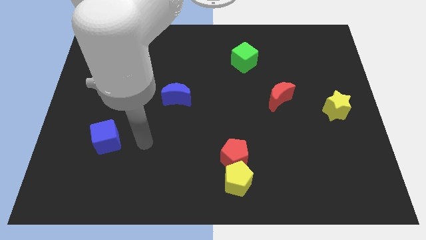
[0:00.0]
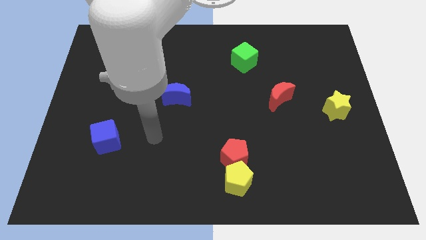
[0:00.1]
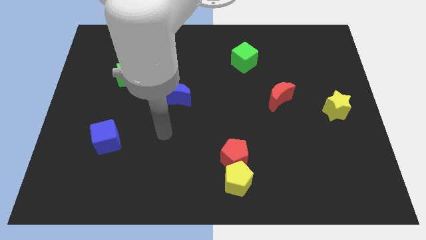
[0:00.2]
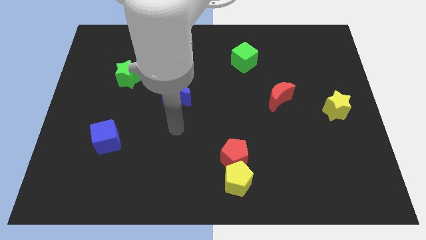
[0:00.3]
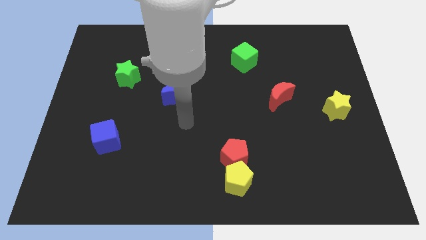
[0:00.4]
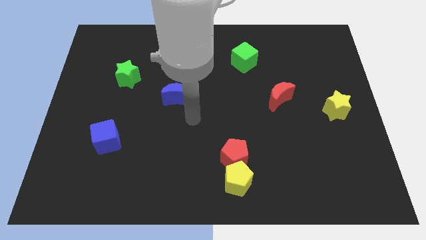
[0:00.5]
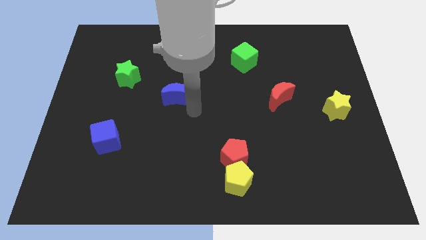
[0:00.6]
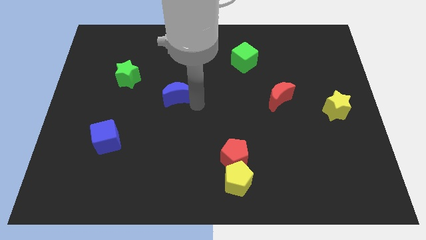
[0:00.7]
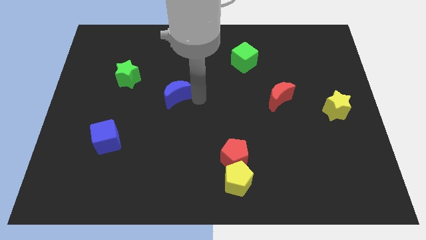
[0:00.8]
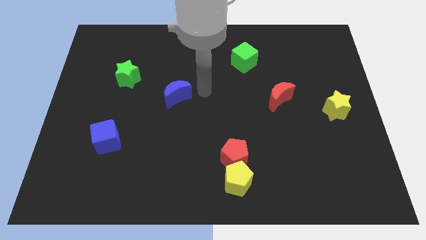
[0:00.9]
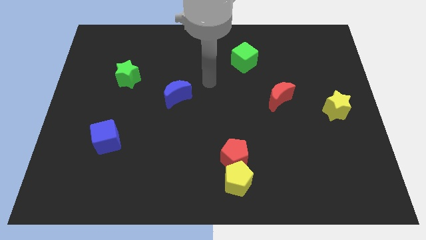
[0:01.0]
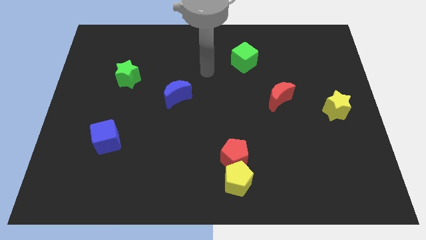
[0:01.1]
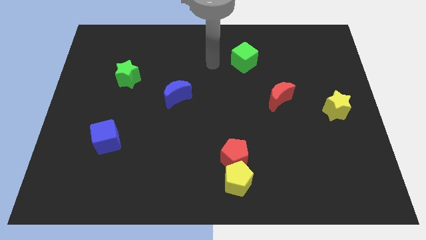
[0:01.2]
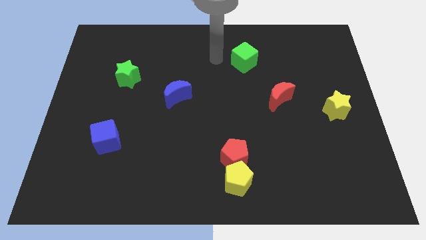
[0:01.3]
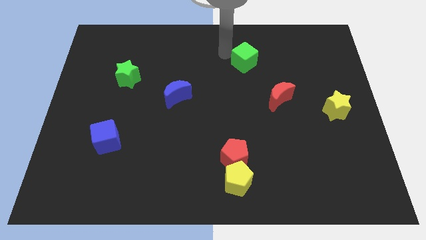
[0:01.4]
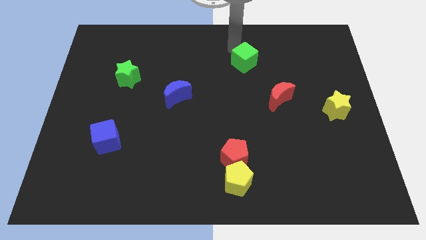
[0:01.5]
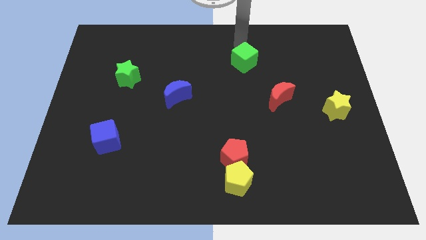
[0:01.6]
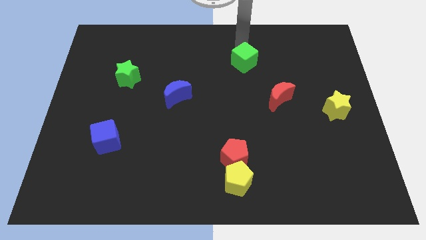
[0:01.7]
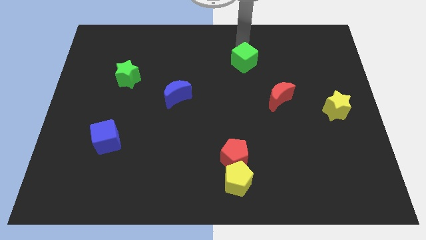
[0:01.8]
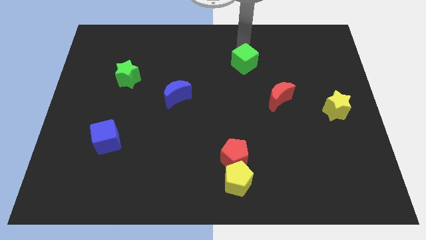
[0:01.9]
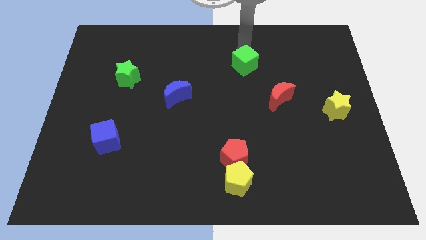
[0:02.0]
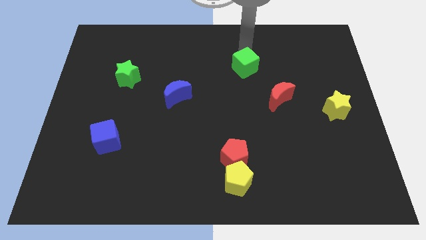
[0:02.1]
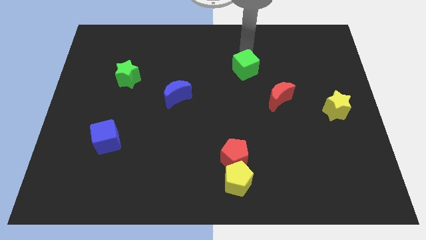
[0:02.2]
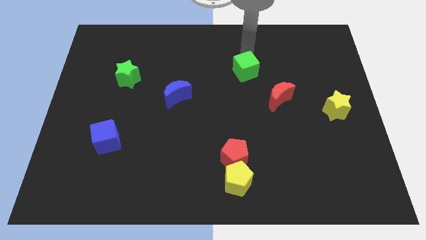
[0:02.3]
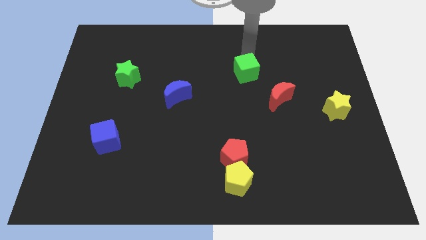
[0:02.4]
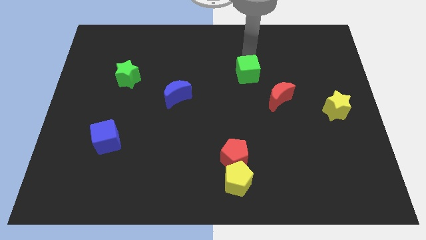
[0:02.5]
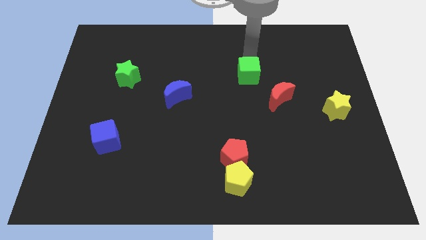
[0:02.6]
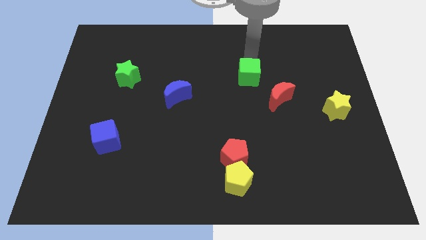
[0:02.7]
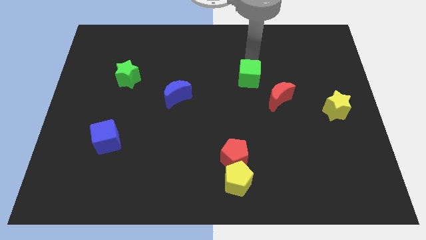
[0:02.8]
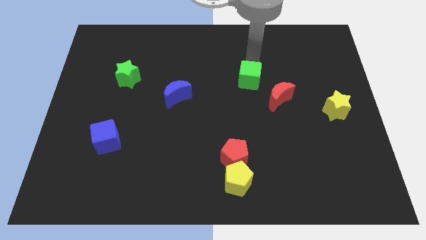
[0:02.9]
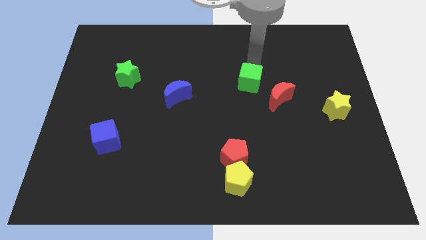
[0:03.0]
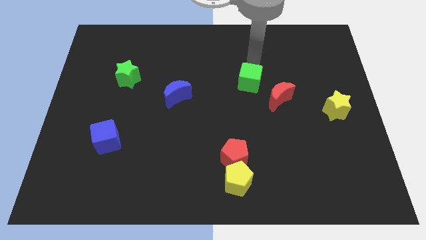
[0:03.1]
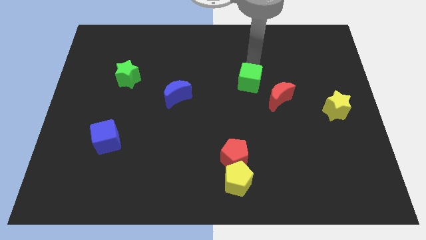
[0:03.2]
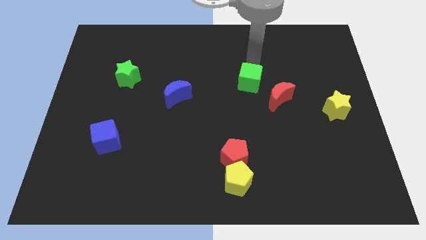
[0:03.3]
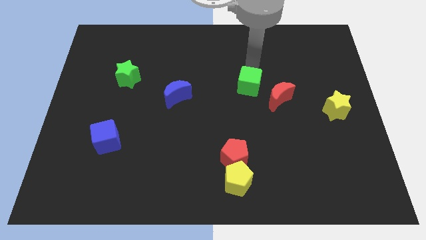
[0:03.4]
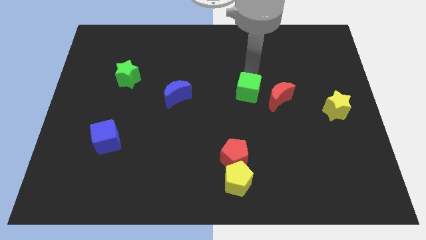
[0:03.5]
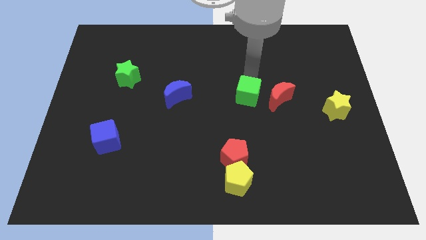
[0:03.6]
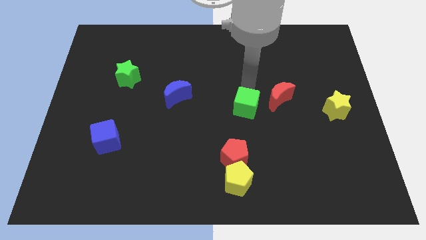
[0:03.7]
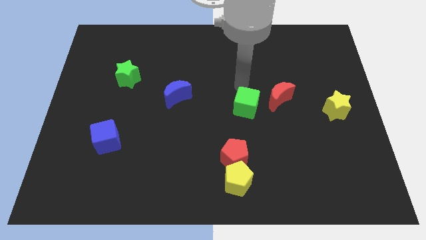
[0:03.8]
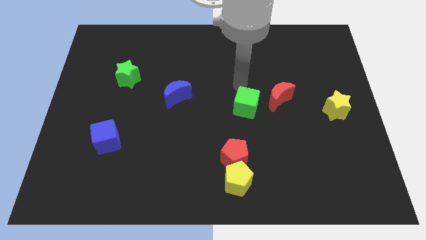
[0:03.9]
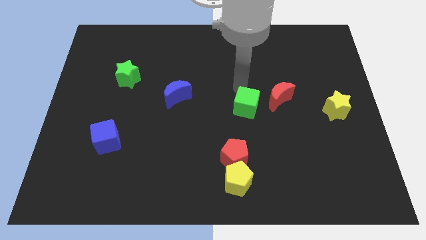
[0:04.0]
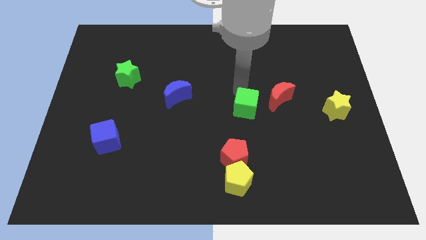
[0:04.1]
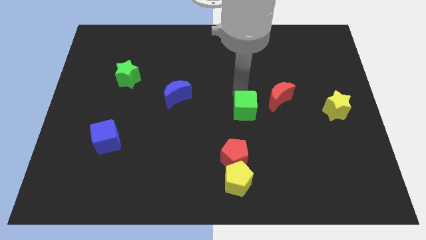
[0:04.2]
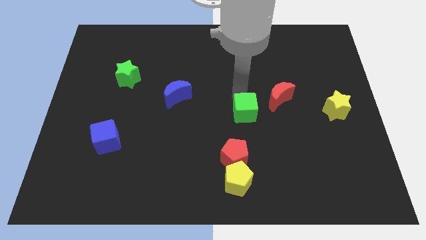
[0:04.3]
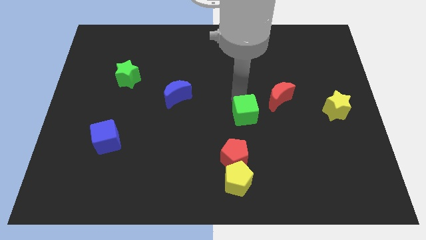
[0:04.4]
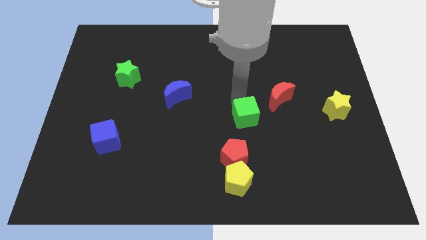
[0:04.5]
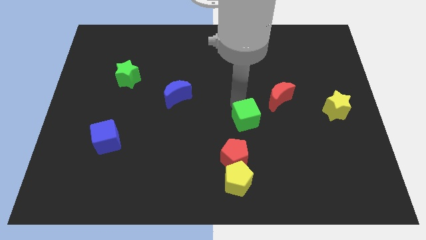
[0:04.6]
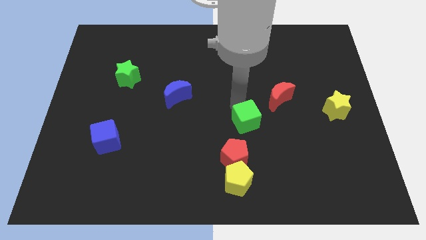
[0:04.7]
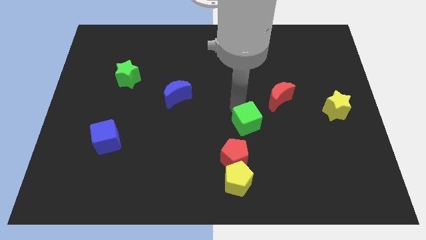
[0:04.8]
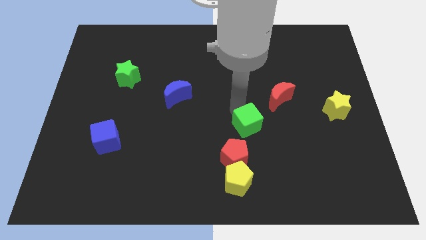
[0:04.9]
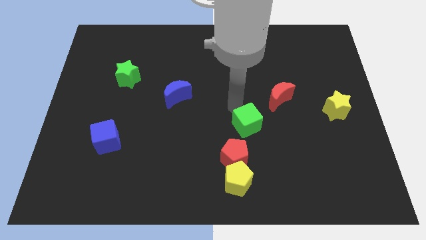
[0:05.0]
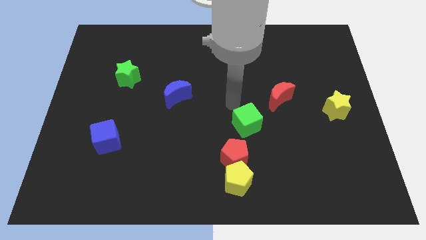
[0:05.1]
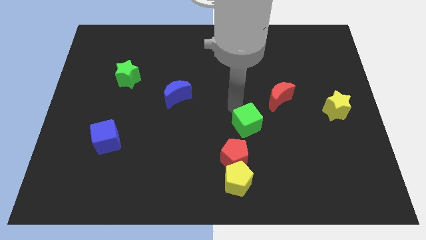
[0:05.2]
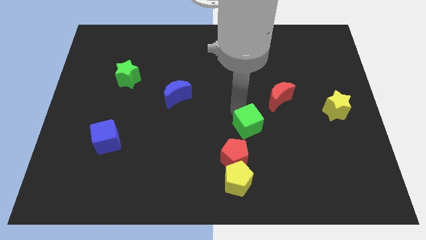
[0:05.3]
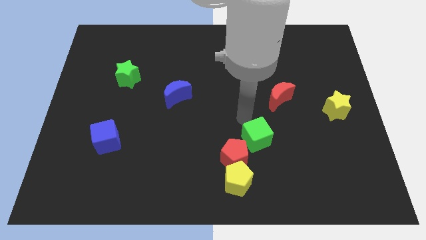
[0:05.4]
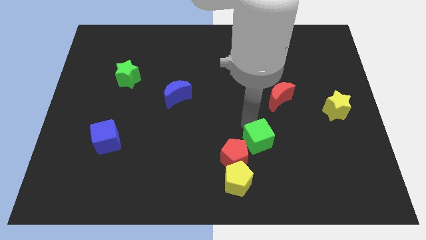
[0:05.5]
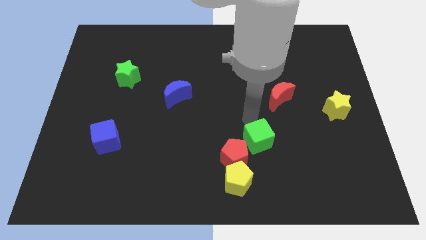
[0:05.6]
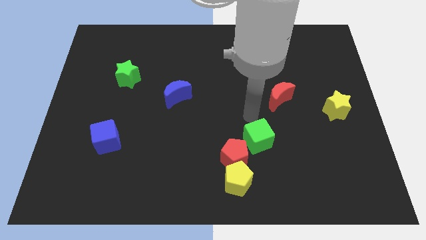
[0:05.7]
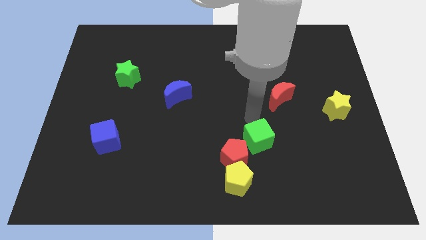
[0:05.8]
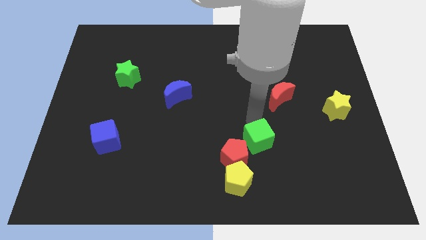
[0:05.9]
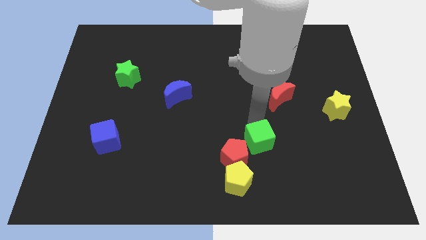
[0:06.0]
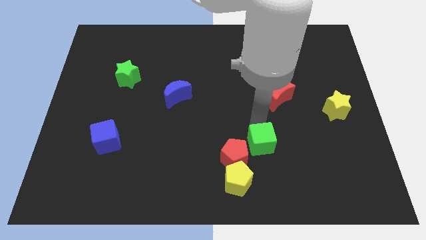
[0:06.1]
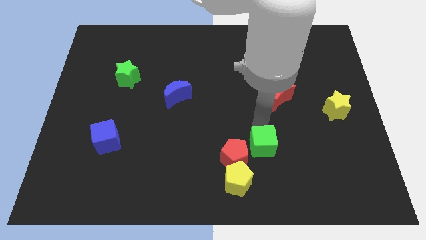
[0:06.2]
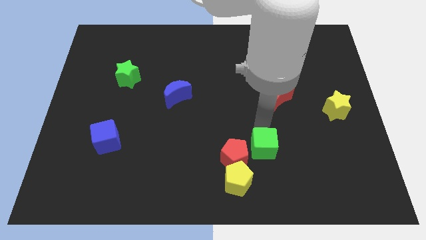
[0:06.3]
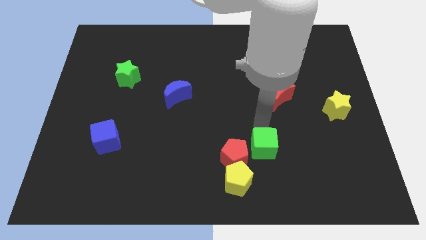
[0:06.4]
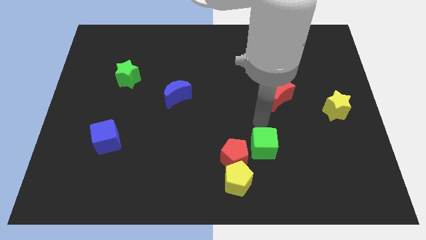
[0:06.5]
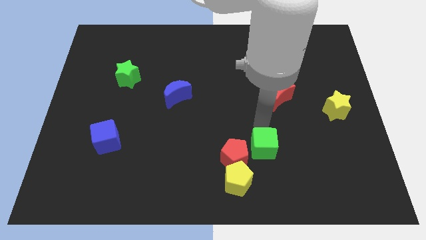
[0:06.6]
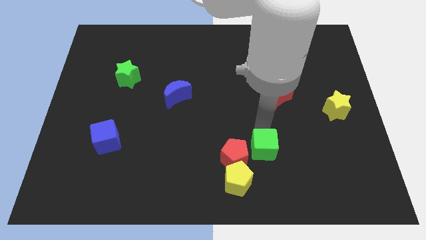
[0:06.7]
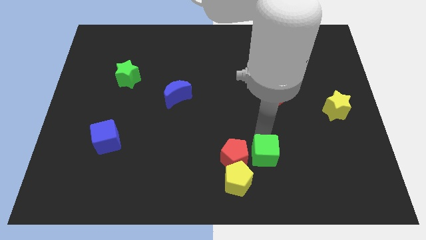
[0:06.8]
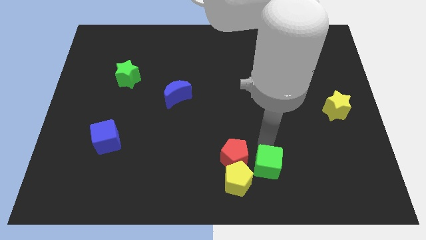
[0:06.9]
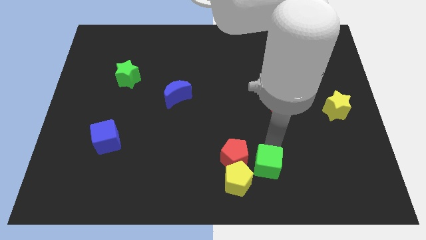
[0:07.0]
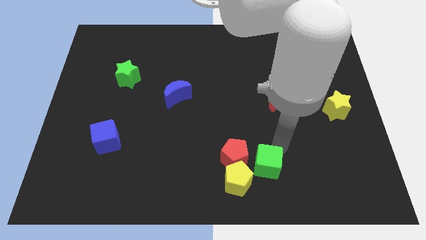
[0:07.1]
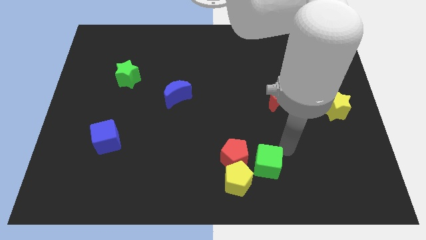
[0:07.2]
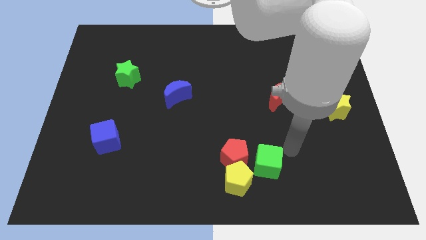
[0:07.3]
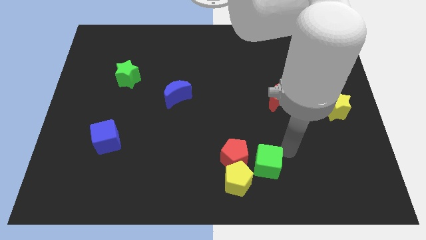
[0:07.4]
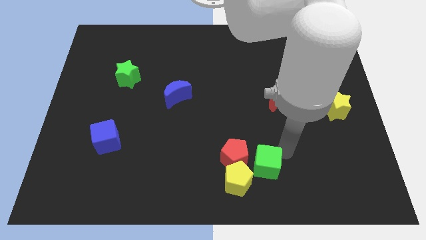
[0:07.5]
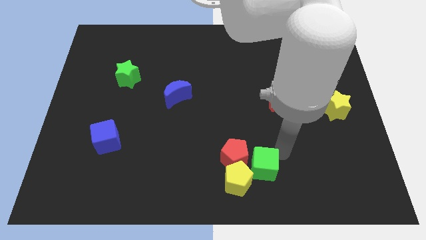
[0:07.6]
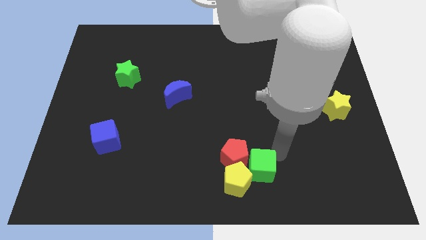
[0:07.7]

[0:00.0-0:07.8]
move the green cube next to the yellow pentagon
